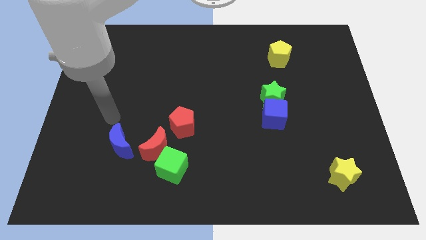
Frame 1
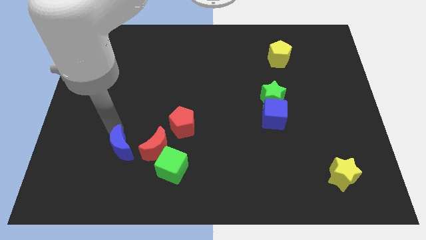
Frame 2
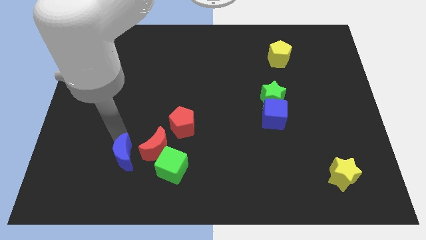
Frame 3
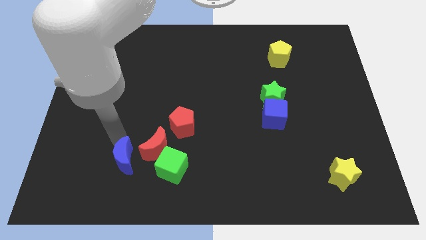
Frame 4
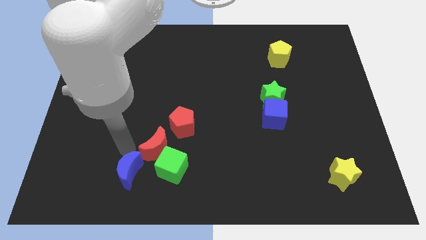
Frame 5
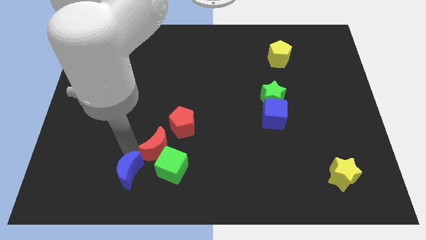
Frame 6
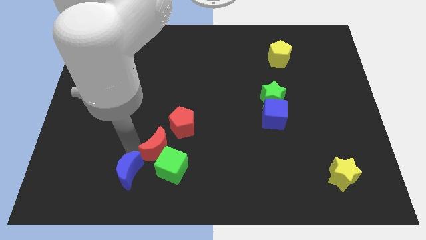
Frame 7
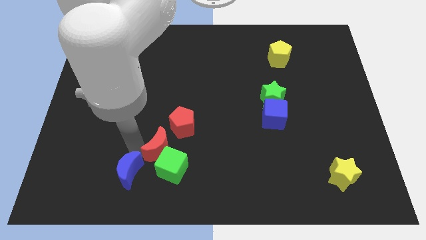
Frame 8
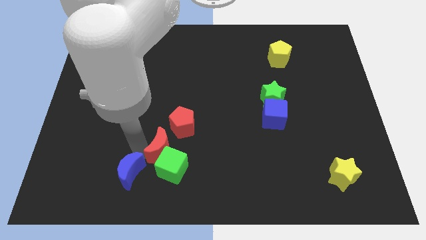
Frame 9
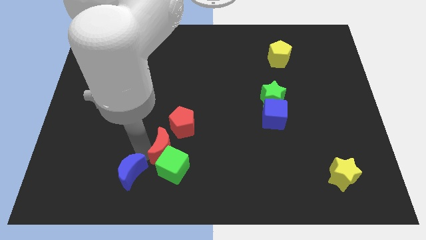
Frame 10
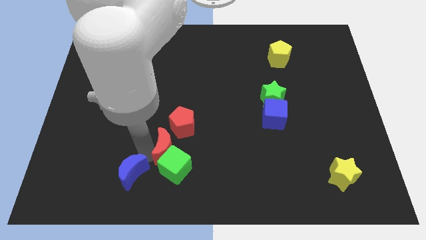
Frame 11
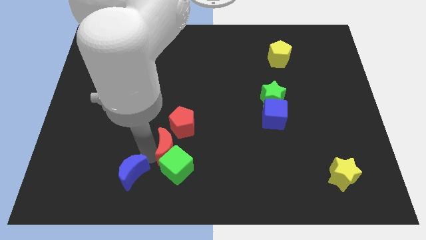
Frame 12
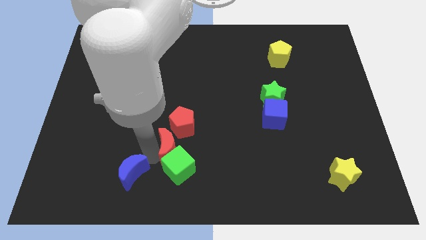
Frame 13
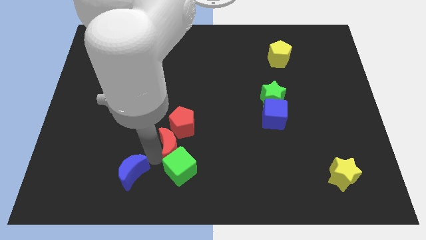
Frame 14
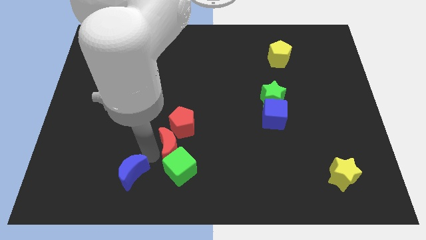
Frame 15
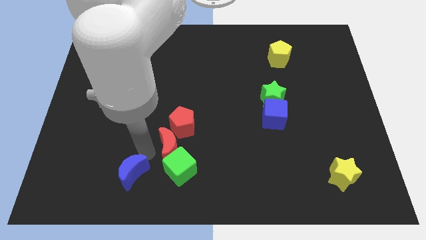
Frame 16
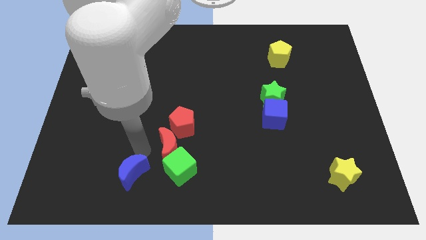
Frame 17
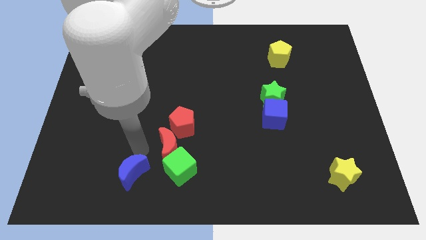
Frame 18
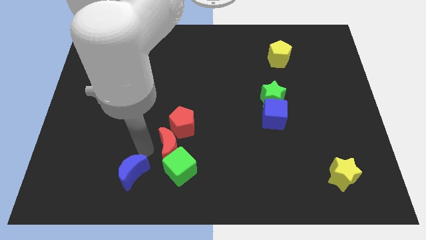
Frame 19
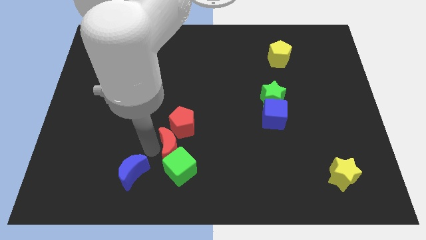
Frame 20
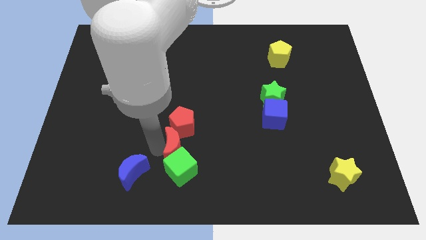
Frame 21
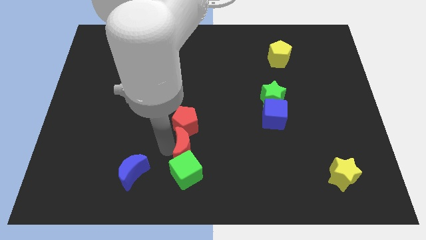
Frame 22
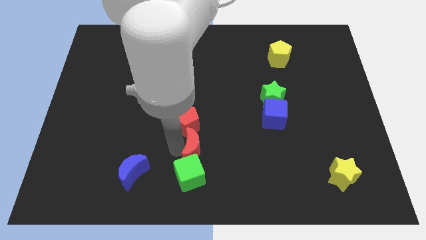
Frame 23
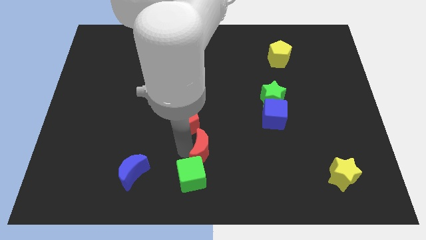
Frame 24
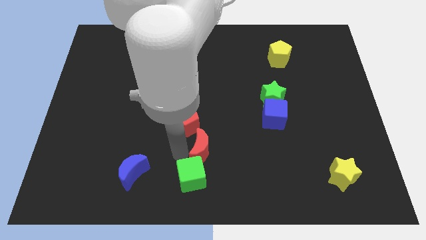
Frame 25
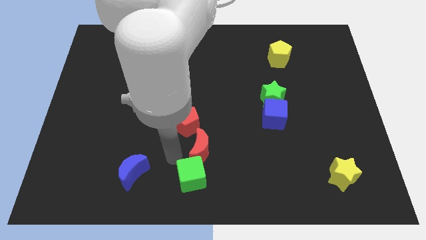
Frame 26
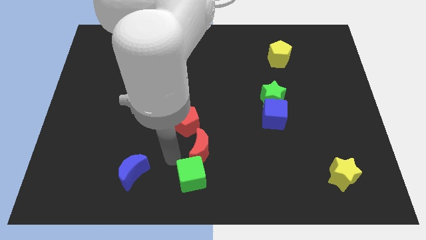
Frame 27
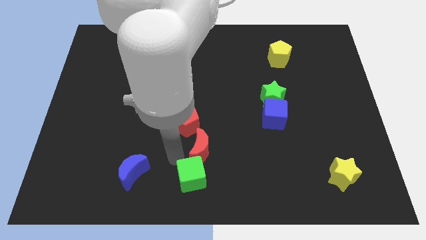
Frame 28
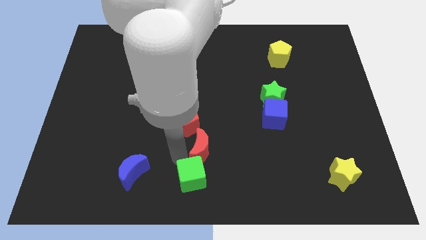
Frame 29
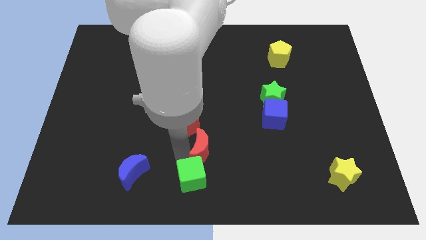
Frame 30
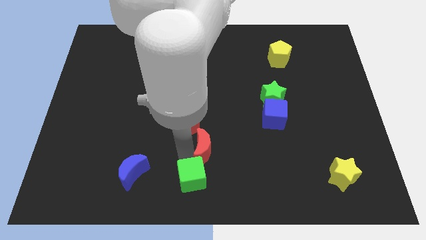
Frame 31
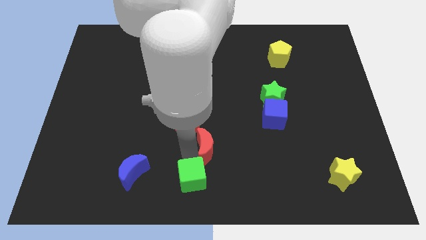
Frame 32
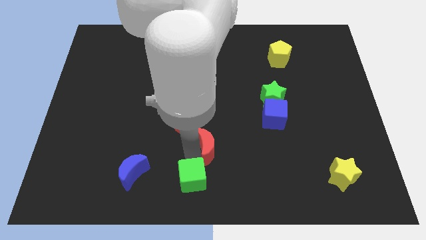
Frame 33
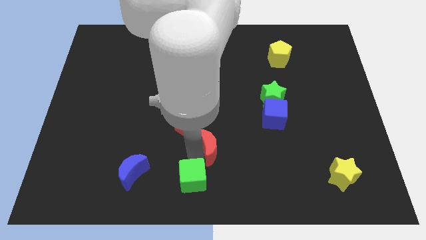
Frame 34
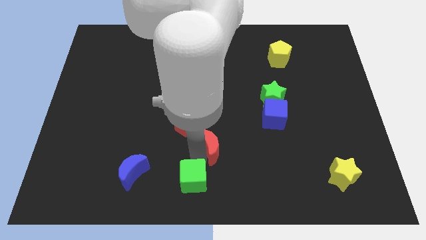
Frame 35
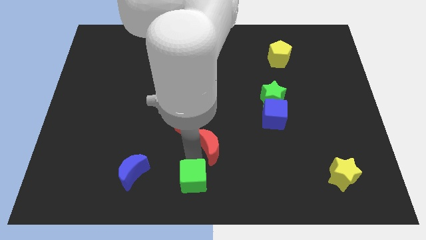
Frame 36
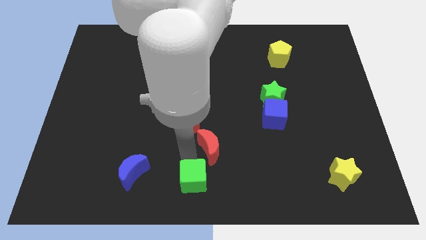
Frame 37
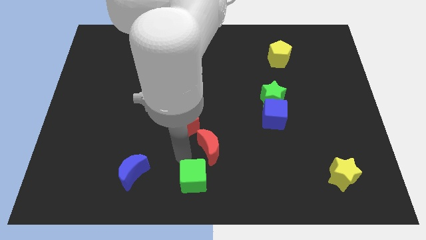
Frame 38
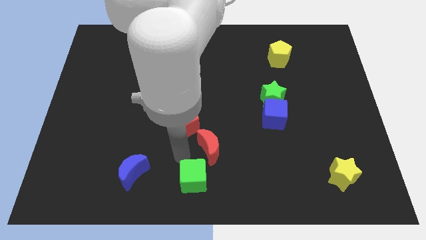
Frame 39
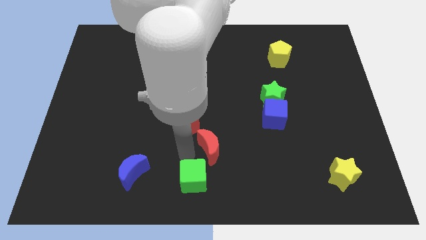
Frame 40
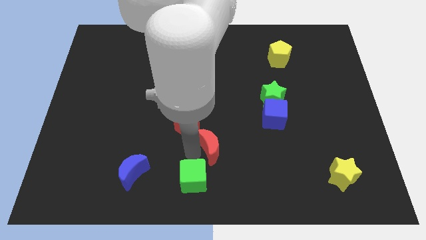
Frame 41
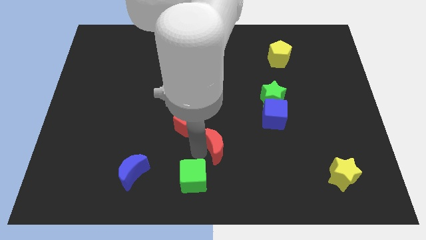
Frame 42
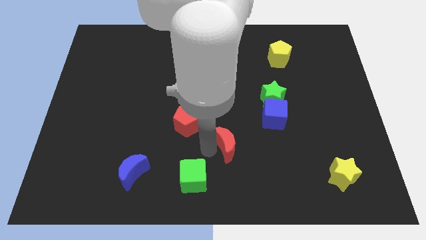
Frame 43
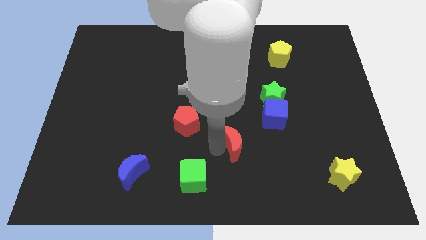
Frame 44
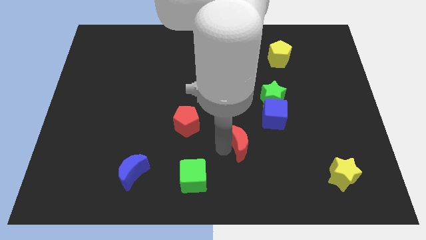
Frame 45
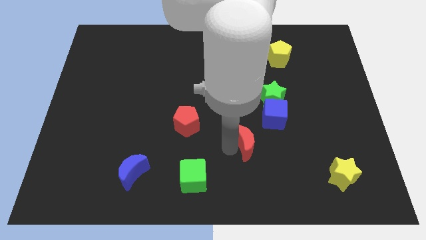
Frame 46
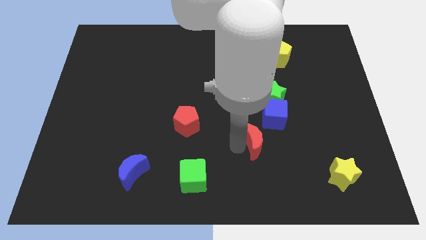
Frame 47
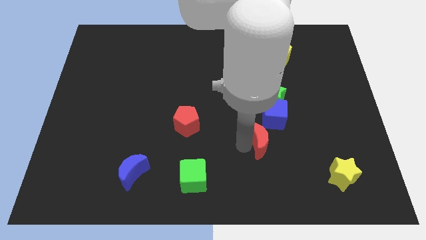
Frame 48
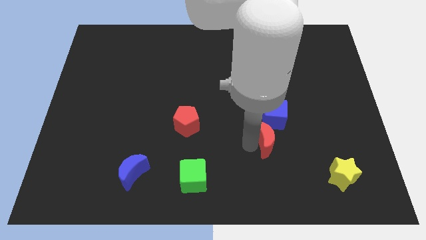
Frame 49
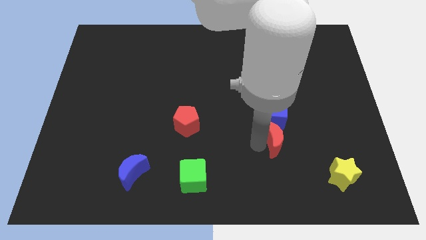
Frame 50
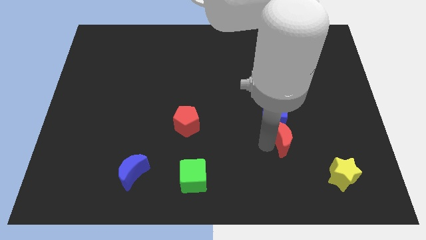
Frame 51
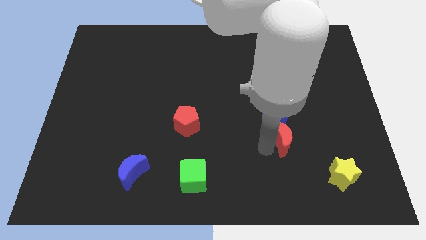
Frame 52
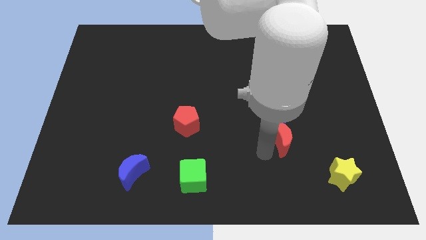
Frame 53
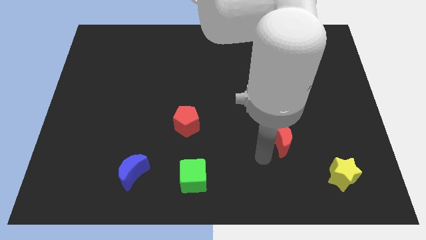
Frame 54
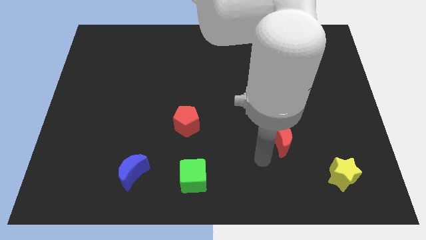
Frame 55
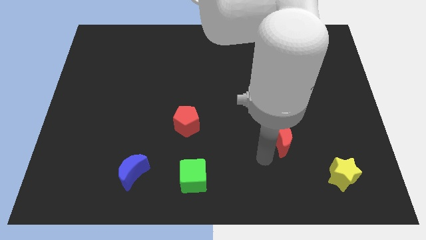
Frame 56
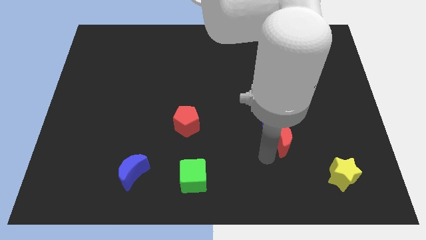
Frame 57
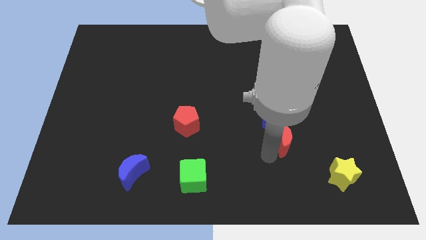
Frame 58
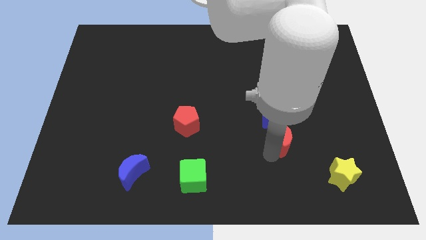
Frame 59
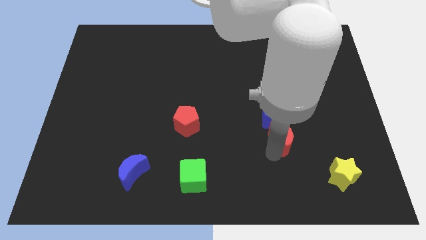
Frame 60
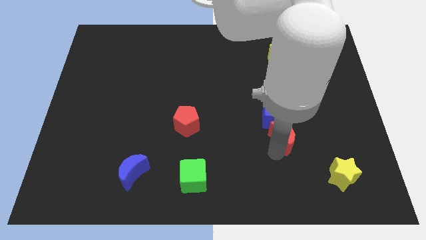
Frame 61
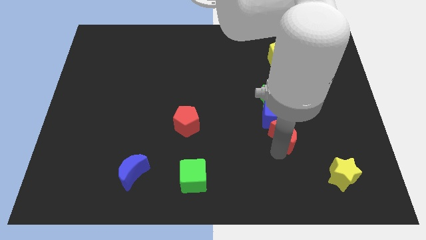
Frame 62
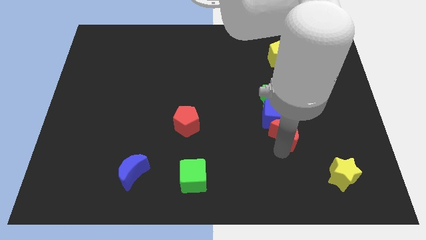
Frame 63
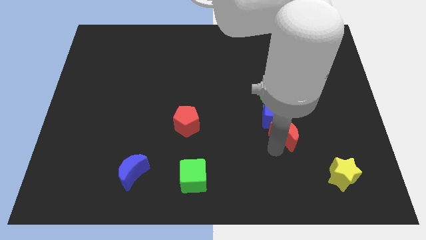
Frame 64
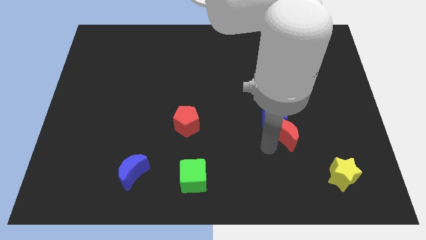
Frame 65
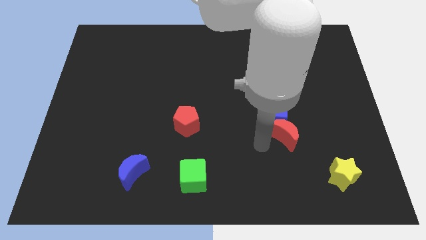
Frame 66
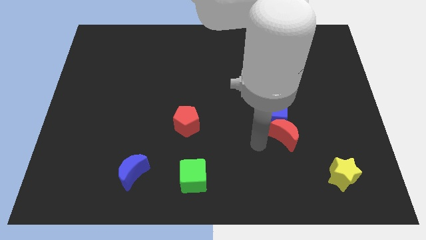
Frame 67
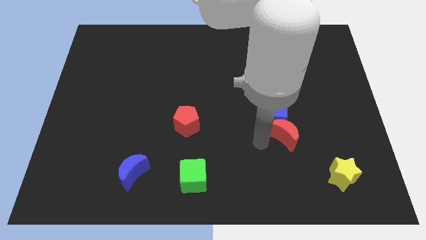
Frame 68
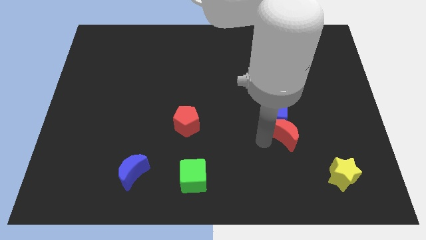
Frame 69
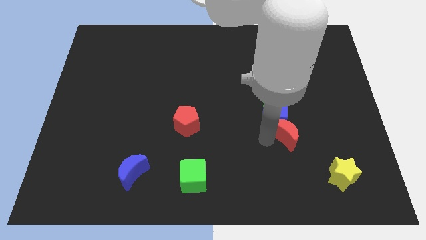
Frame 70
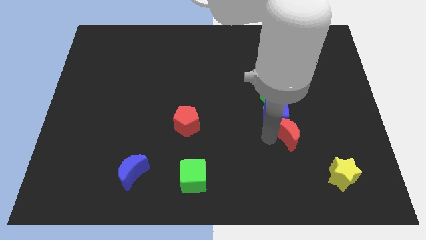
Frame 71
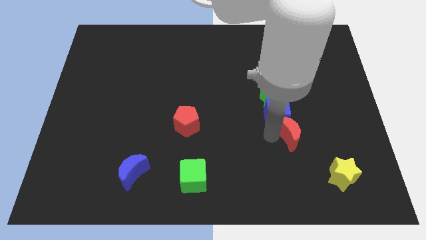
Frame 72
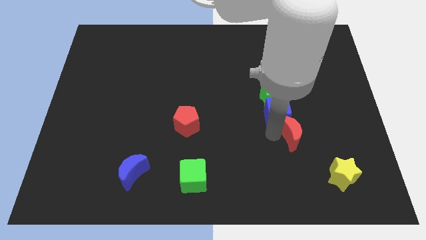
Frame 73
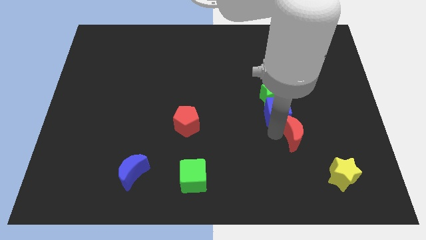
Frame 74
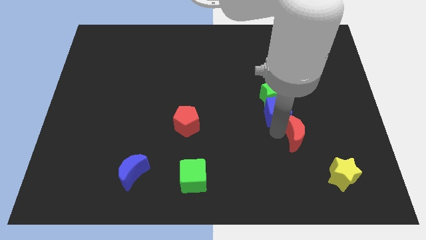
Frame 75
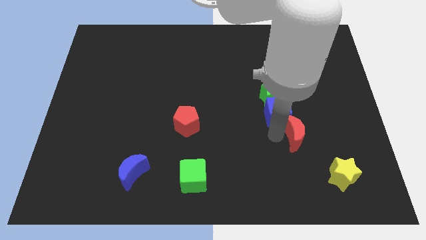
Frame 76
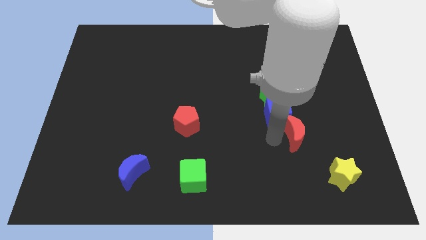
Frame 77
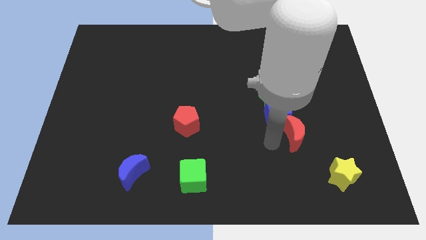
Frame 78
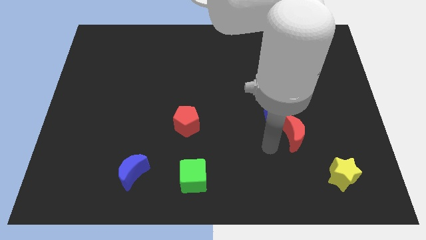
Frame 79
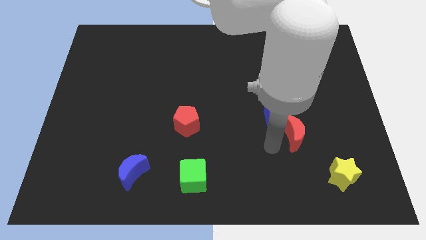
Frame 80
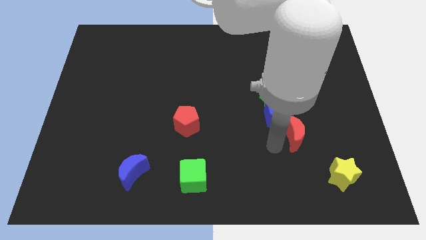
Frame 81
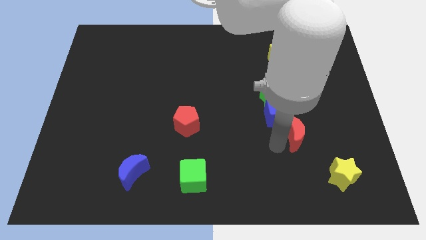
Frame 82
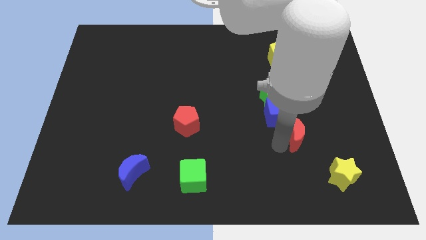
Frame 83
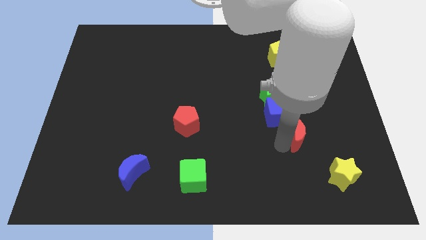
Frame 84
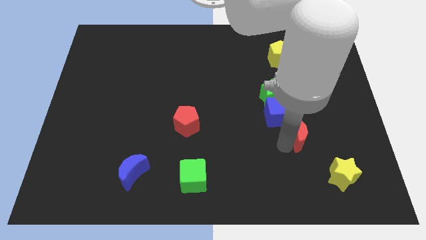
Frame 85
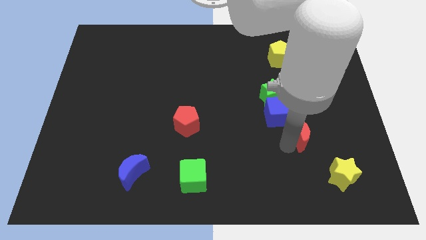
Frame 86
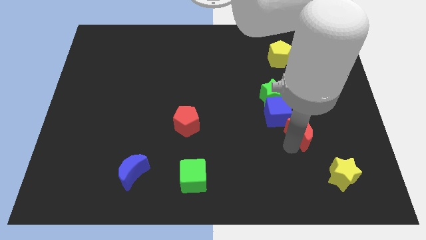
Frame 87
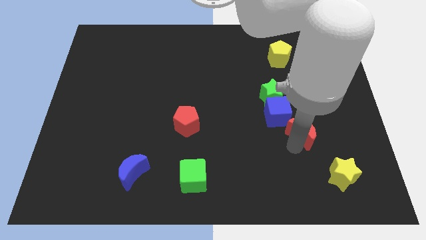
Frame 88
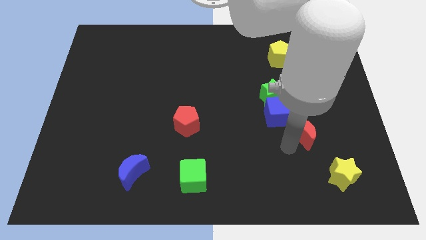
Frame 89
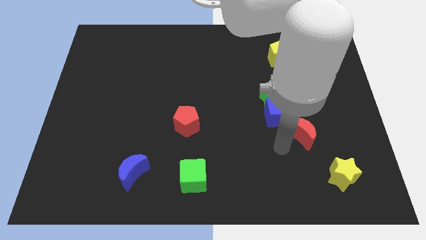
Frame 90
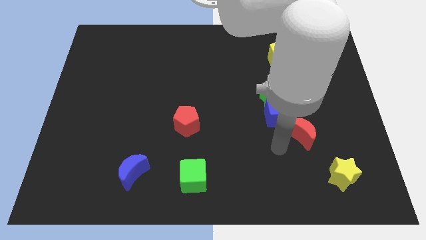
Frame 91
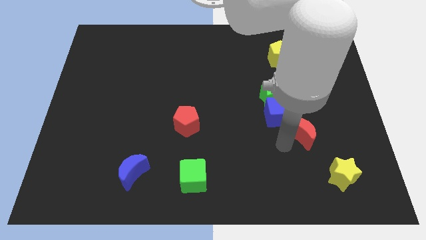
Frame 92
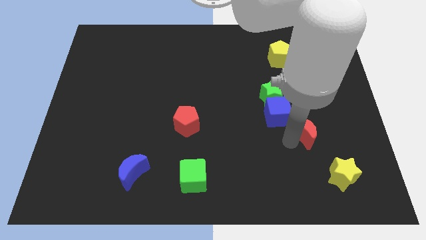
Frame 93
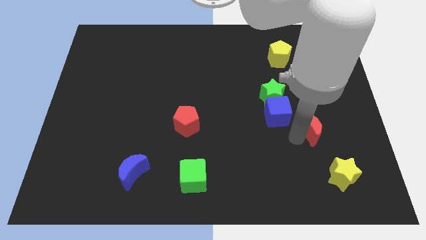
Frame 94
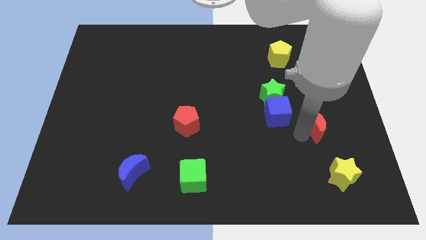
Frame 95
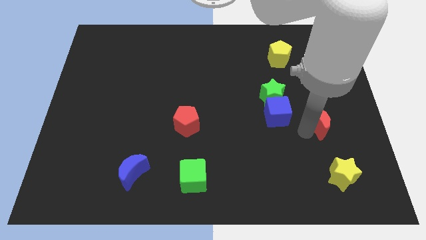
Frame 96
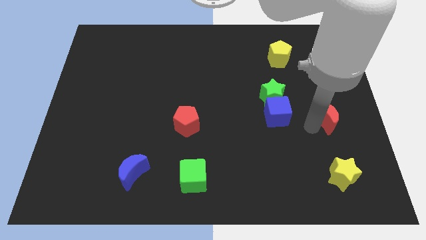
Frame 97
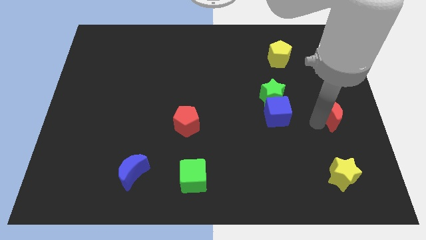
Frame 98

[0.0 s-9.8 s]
move the red moon to the right side of the board
